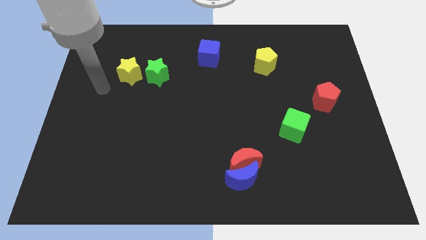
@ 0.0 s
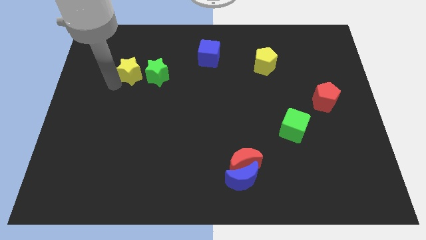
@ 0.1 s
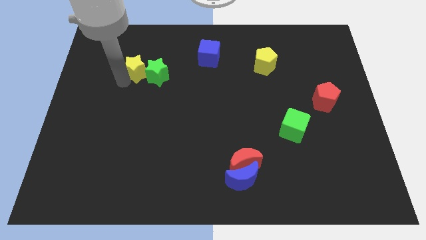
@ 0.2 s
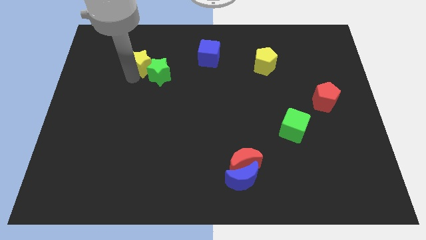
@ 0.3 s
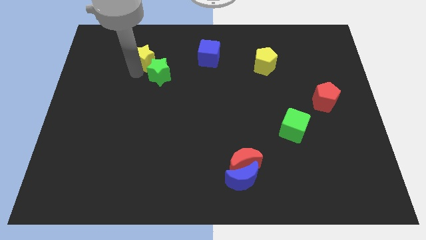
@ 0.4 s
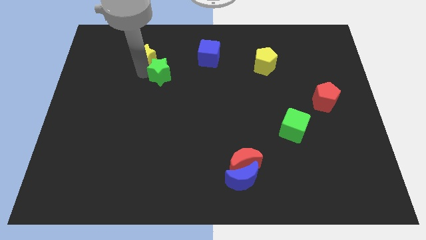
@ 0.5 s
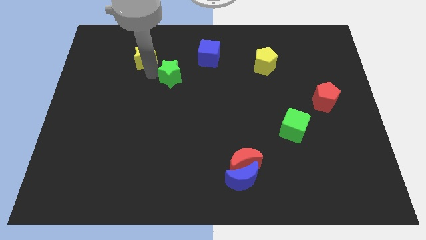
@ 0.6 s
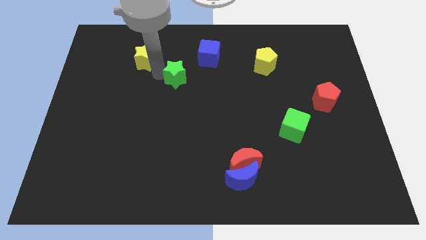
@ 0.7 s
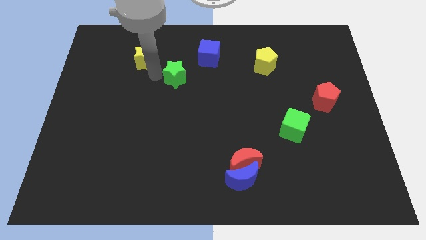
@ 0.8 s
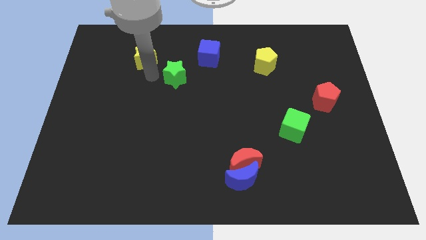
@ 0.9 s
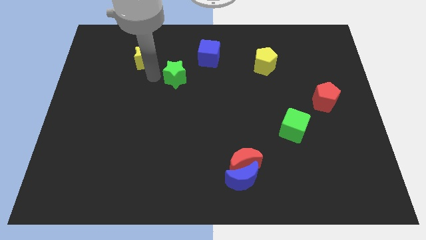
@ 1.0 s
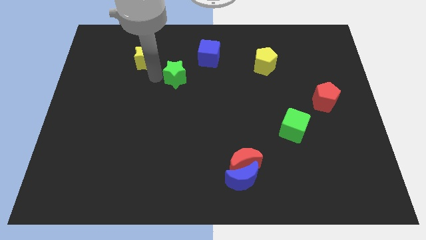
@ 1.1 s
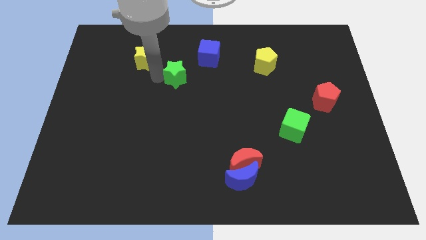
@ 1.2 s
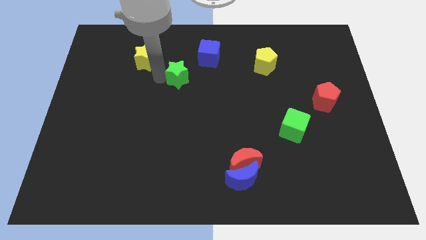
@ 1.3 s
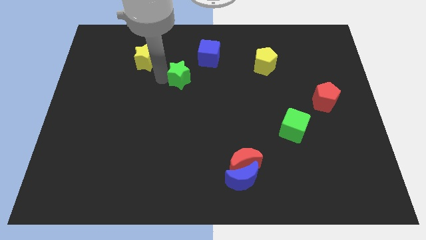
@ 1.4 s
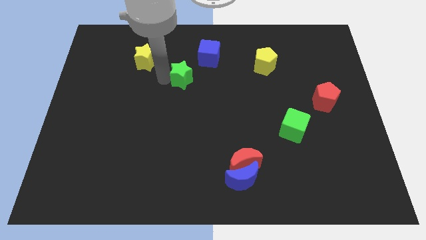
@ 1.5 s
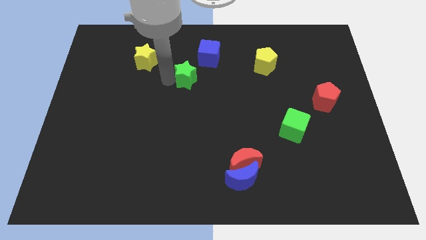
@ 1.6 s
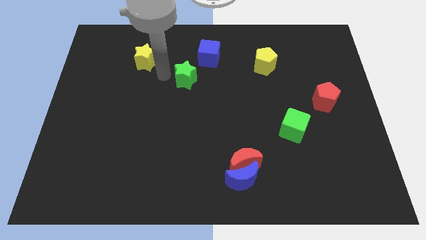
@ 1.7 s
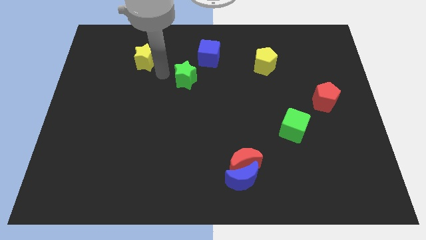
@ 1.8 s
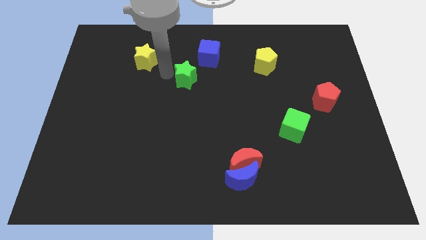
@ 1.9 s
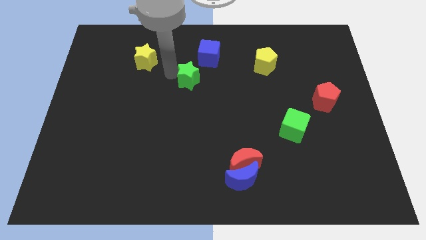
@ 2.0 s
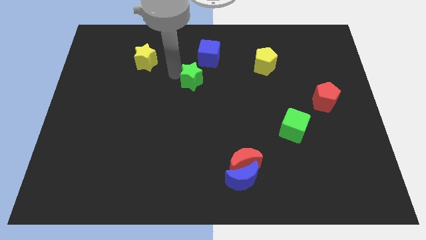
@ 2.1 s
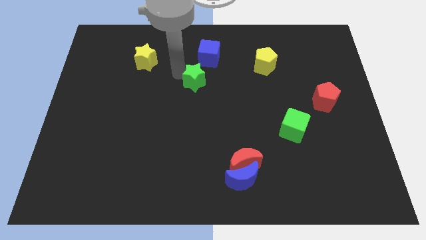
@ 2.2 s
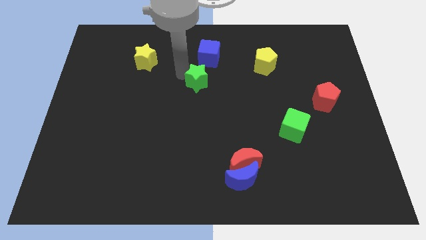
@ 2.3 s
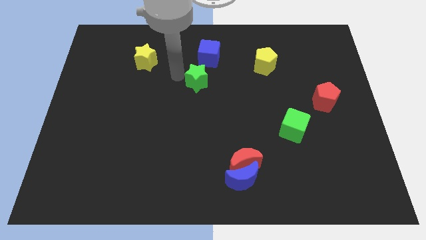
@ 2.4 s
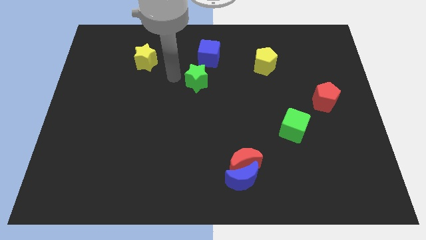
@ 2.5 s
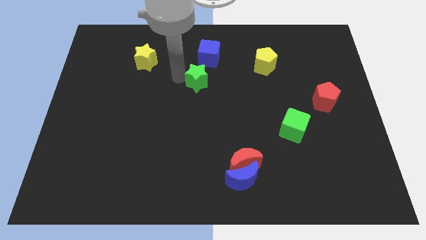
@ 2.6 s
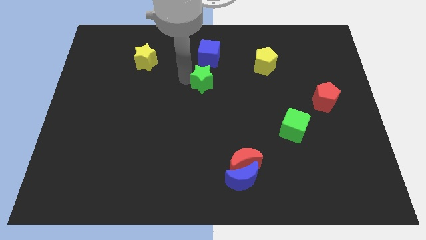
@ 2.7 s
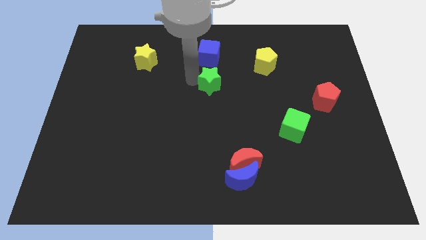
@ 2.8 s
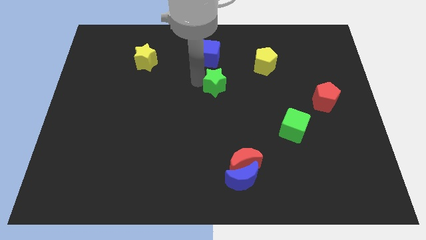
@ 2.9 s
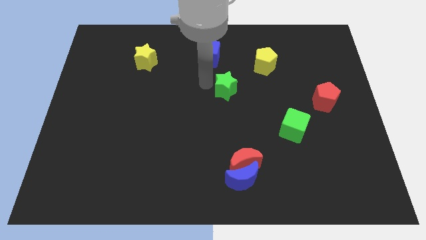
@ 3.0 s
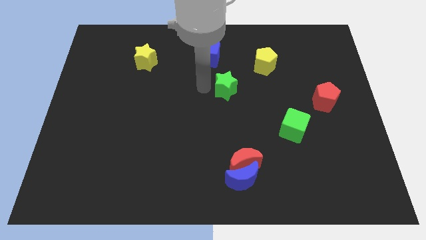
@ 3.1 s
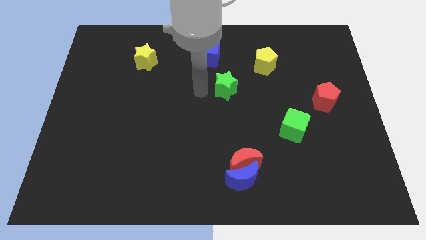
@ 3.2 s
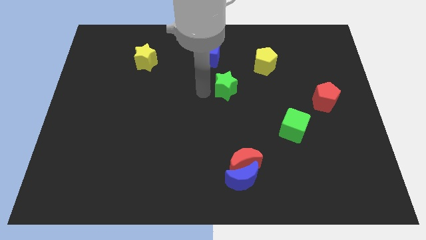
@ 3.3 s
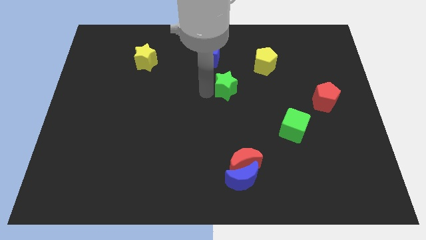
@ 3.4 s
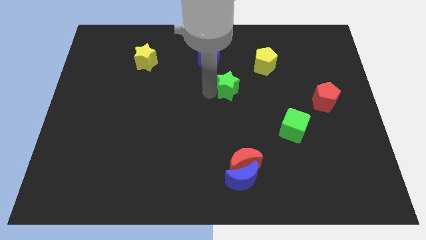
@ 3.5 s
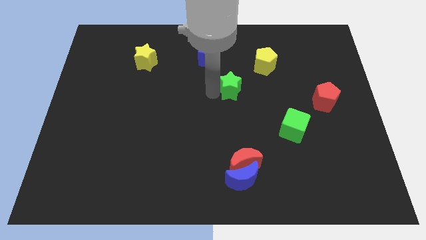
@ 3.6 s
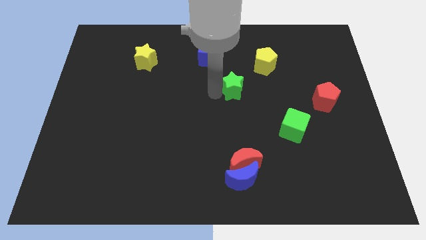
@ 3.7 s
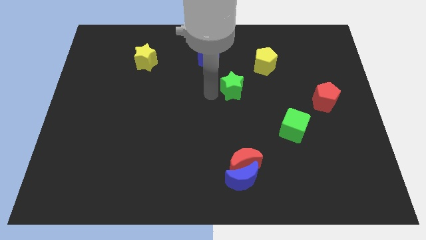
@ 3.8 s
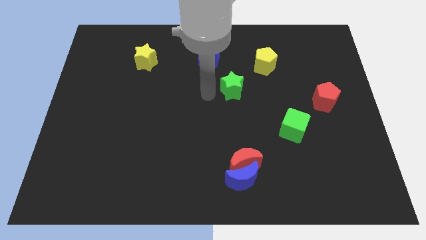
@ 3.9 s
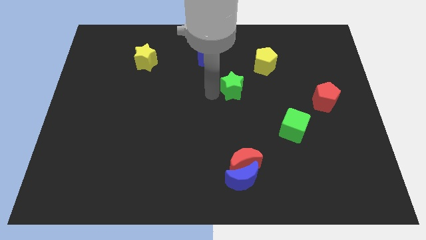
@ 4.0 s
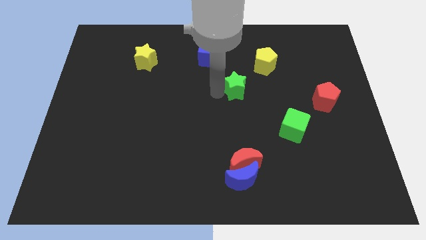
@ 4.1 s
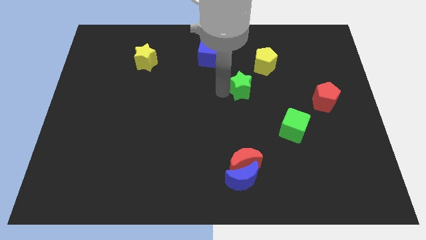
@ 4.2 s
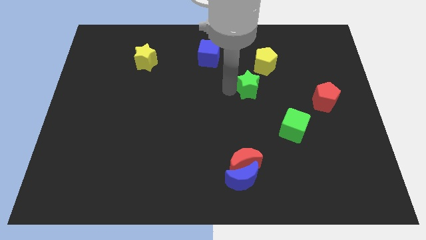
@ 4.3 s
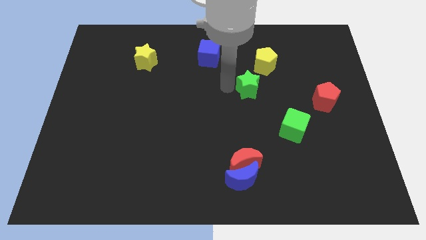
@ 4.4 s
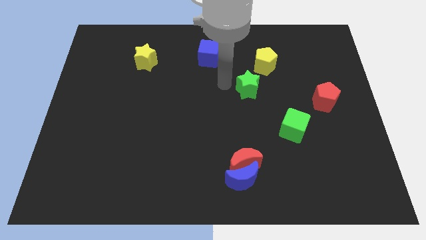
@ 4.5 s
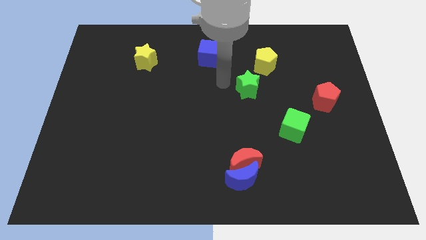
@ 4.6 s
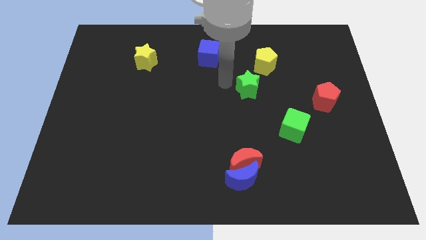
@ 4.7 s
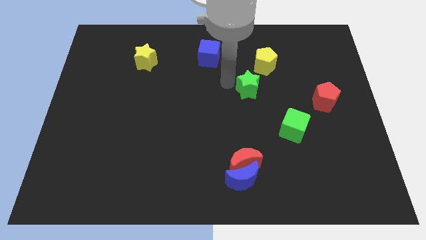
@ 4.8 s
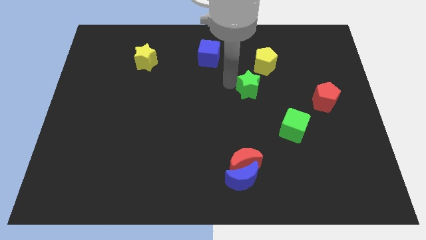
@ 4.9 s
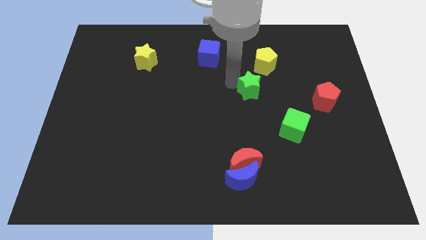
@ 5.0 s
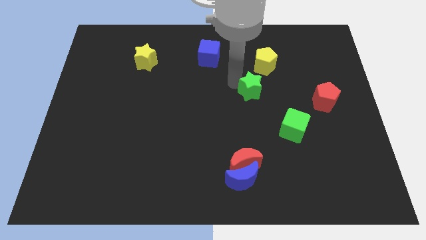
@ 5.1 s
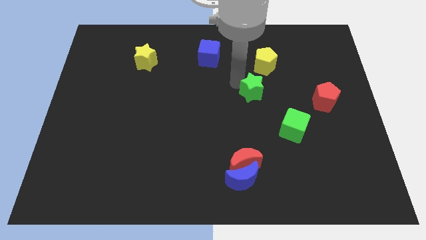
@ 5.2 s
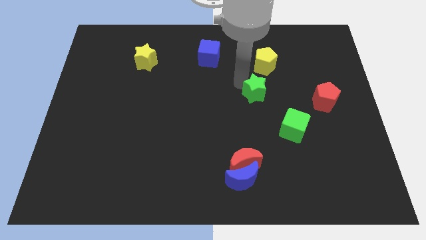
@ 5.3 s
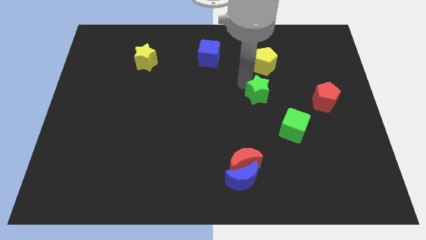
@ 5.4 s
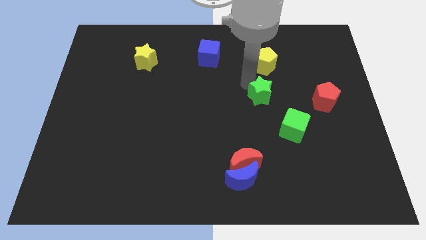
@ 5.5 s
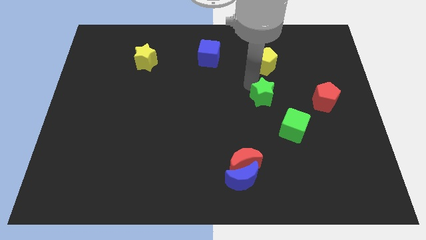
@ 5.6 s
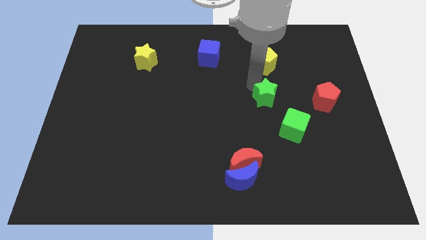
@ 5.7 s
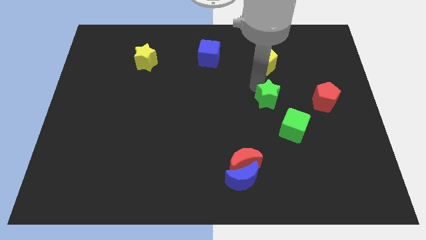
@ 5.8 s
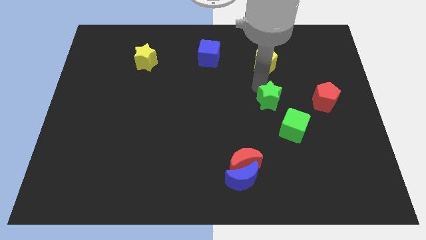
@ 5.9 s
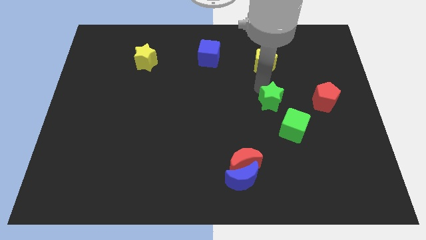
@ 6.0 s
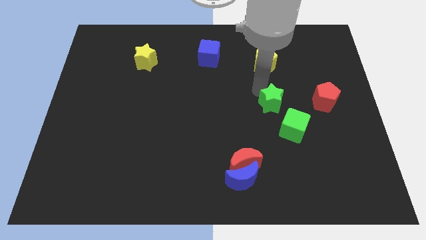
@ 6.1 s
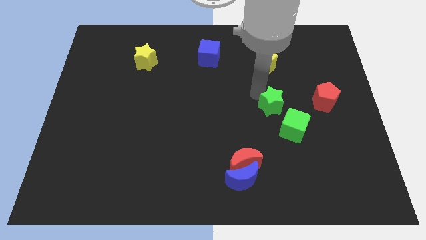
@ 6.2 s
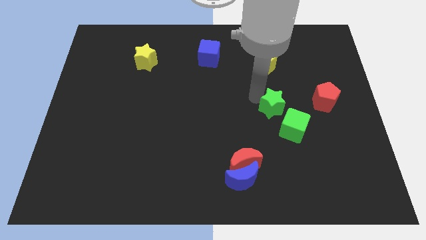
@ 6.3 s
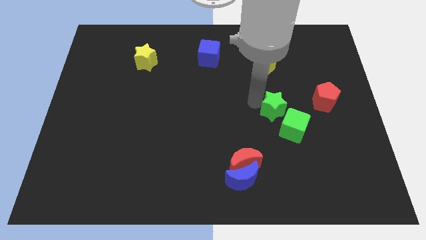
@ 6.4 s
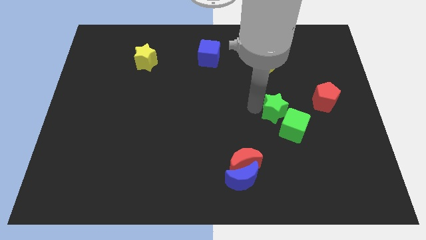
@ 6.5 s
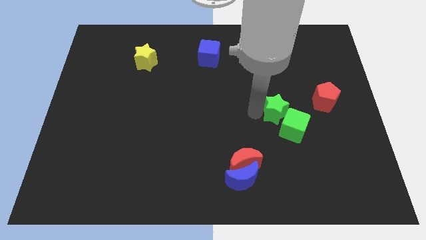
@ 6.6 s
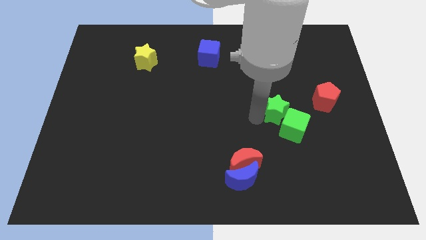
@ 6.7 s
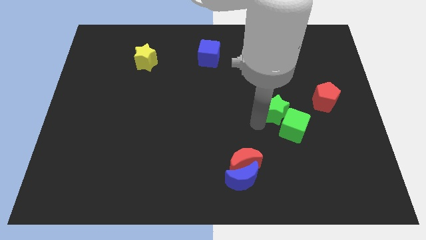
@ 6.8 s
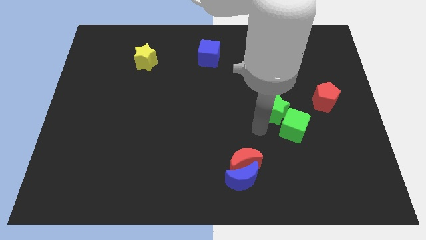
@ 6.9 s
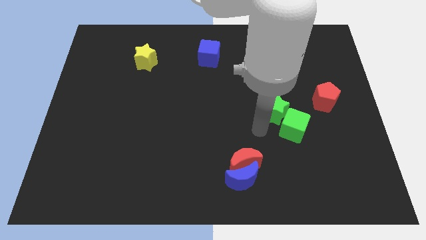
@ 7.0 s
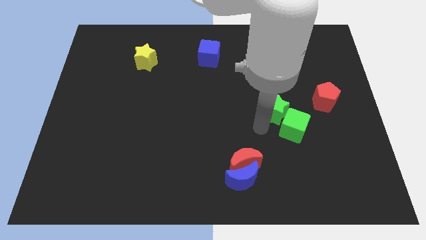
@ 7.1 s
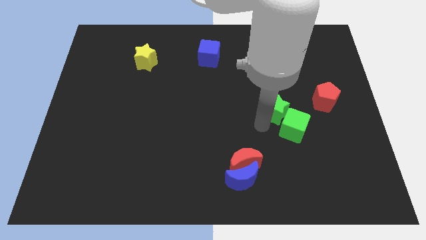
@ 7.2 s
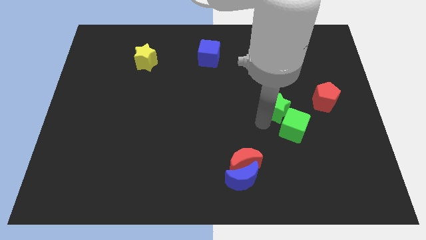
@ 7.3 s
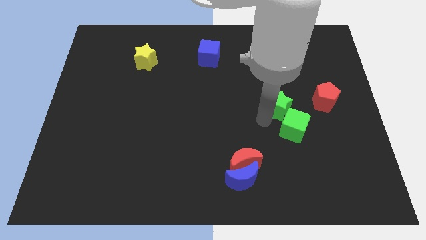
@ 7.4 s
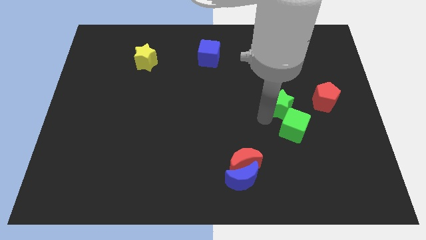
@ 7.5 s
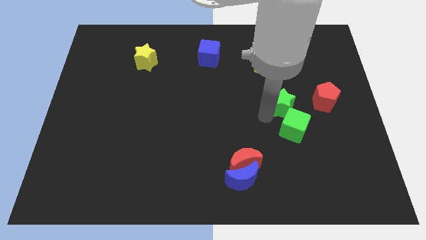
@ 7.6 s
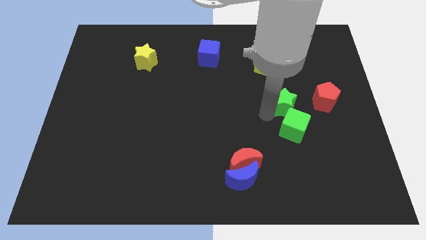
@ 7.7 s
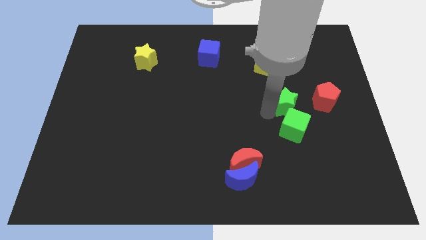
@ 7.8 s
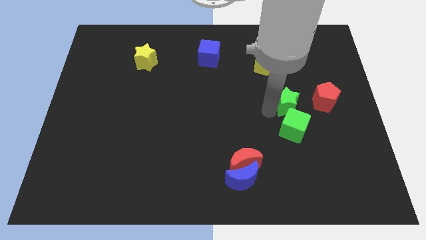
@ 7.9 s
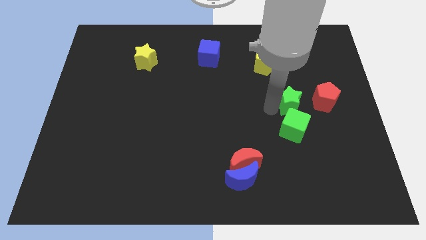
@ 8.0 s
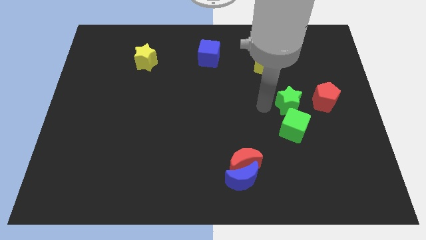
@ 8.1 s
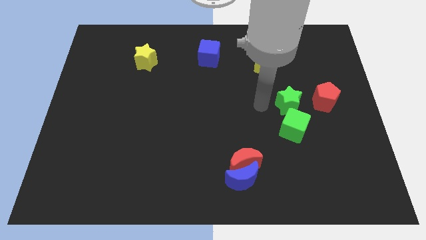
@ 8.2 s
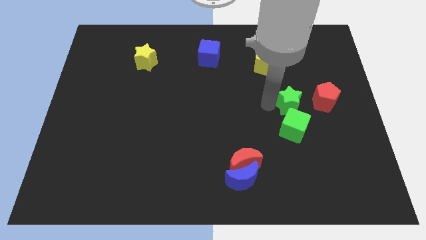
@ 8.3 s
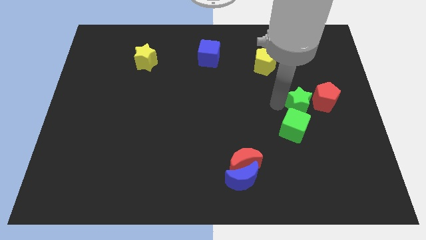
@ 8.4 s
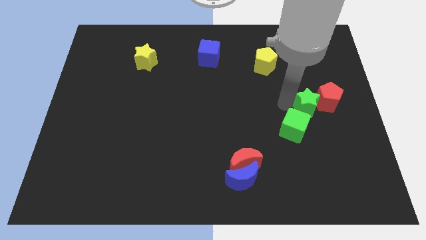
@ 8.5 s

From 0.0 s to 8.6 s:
move the green star towards the red pentagon
